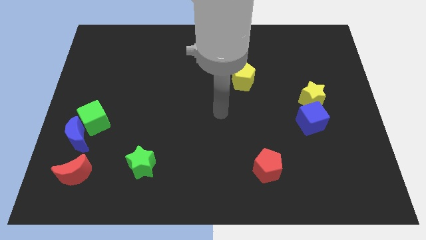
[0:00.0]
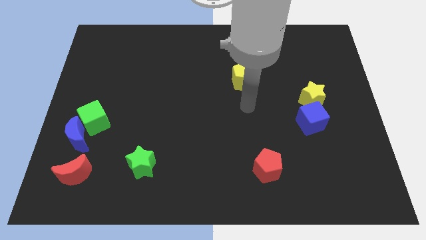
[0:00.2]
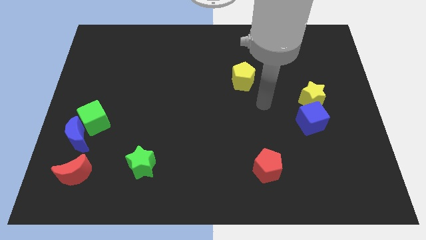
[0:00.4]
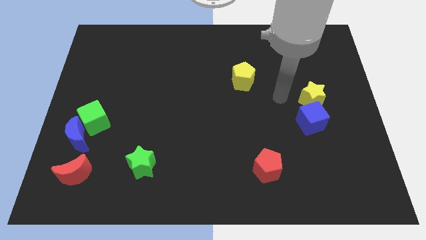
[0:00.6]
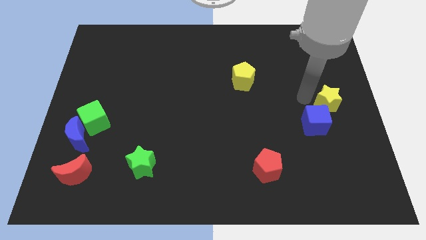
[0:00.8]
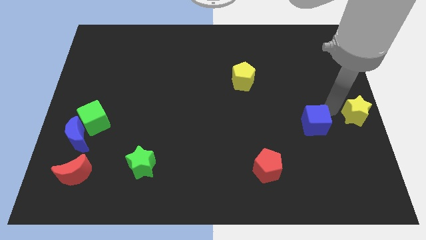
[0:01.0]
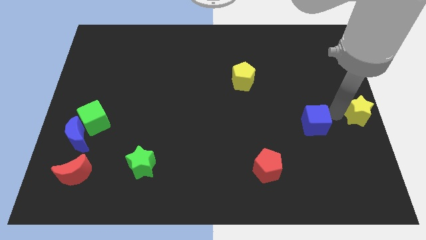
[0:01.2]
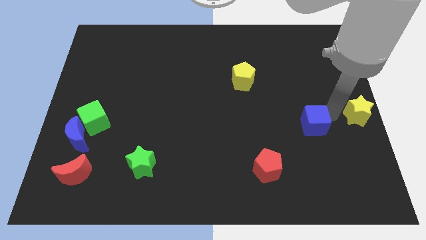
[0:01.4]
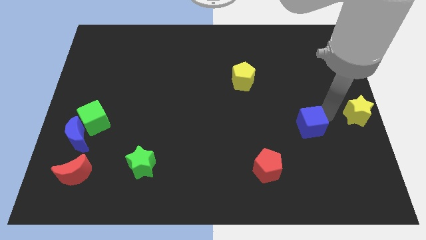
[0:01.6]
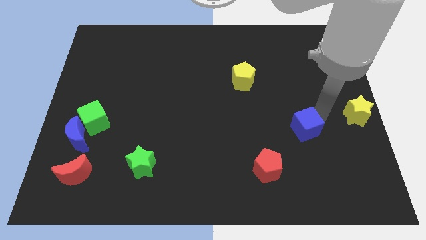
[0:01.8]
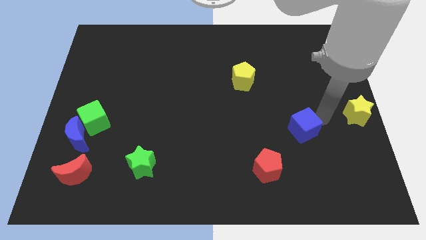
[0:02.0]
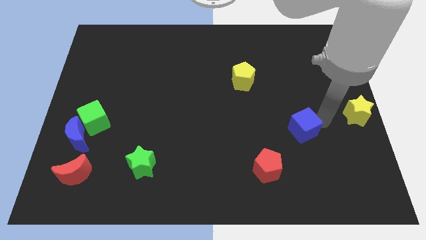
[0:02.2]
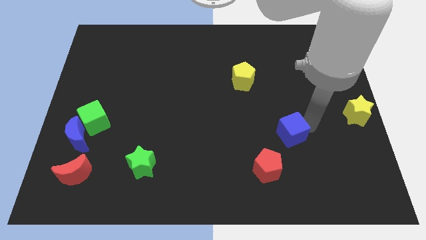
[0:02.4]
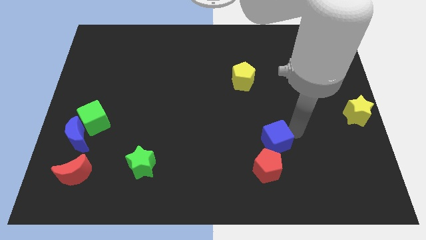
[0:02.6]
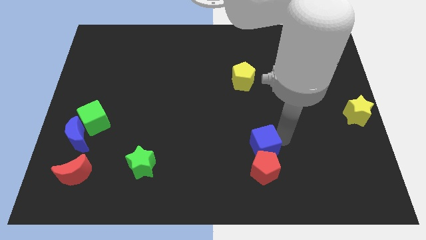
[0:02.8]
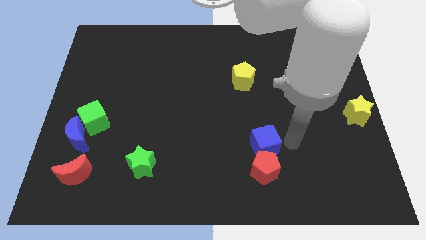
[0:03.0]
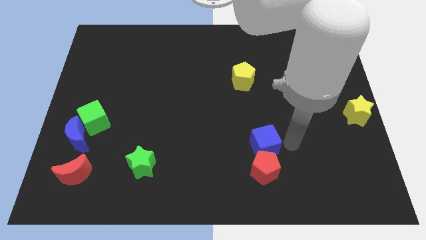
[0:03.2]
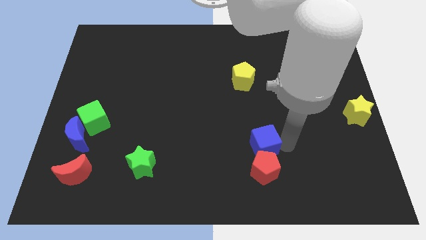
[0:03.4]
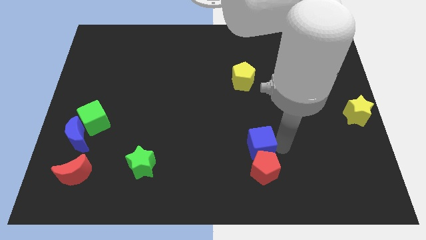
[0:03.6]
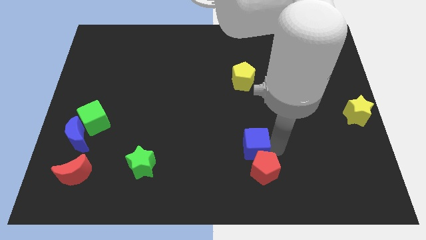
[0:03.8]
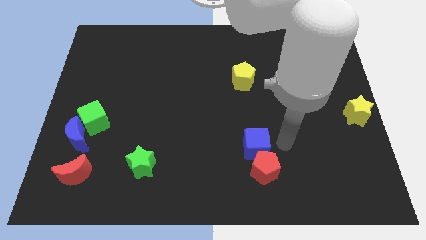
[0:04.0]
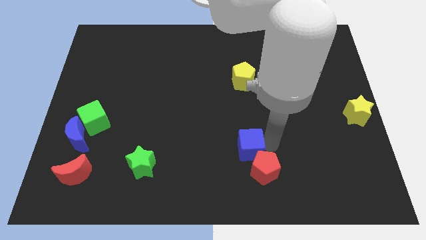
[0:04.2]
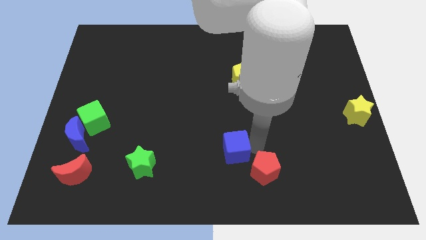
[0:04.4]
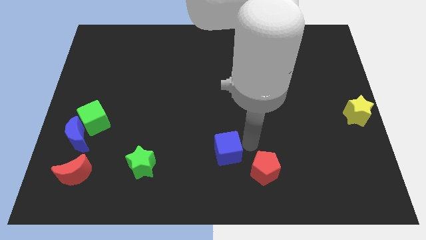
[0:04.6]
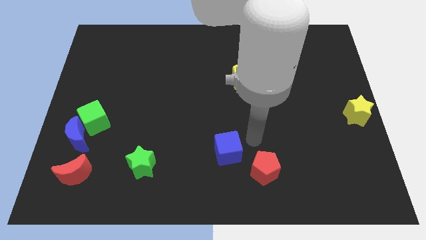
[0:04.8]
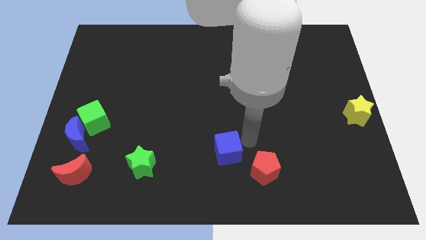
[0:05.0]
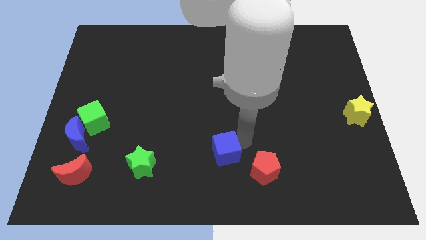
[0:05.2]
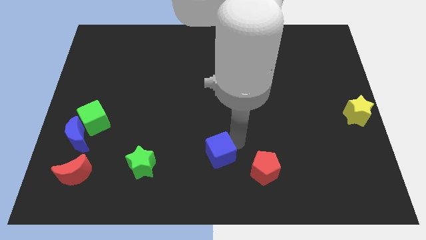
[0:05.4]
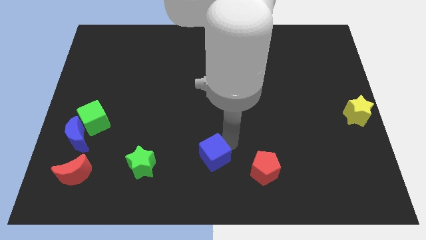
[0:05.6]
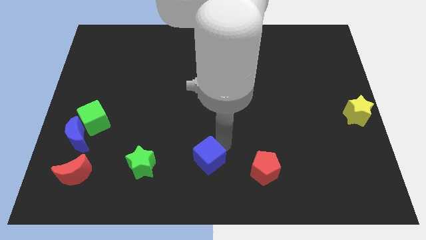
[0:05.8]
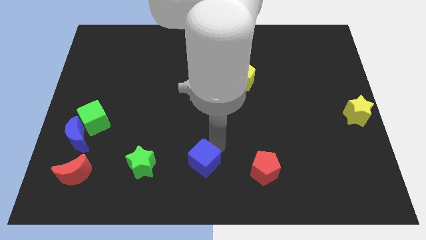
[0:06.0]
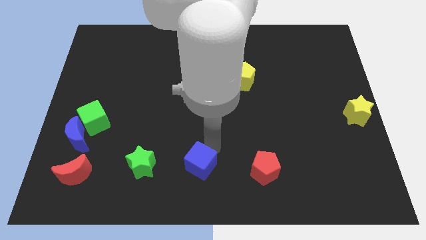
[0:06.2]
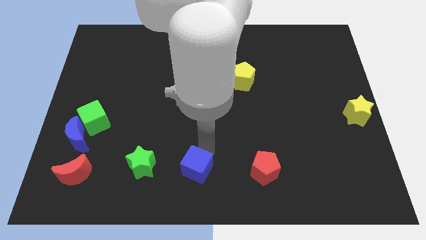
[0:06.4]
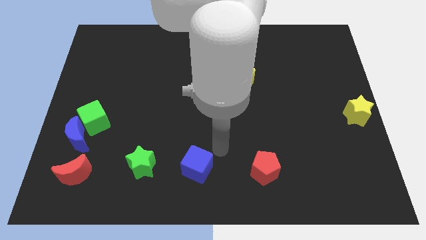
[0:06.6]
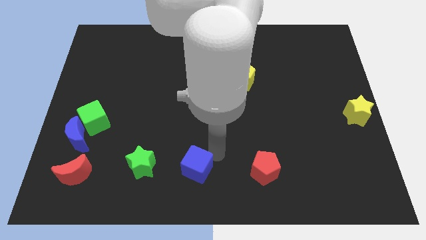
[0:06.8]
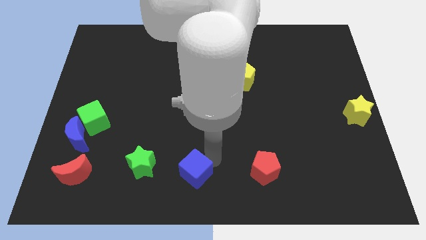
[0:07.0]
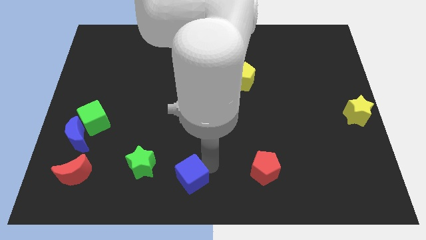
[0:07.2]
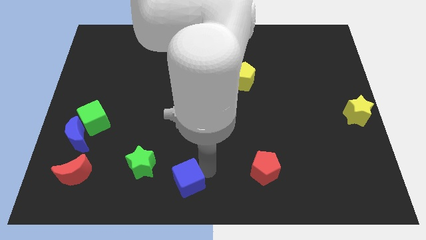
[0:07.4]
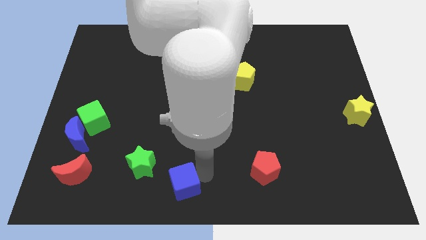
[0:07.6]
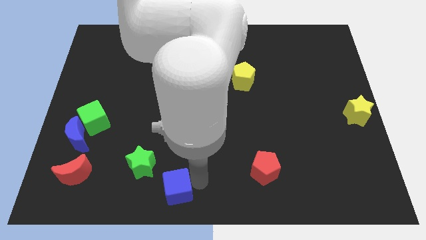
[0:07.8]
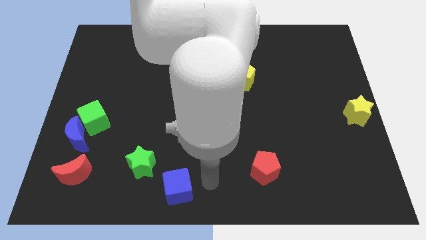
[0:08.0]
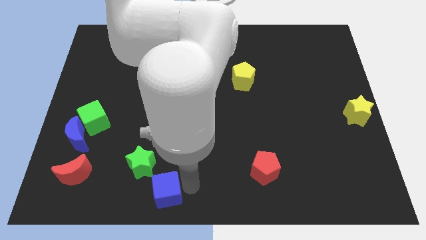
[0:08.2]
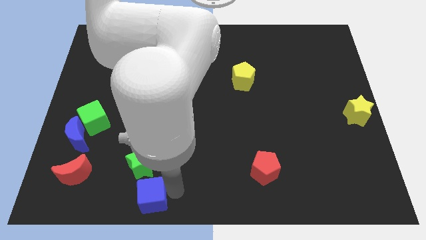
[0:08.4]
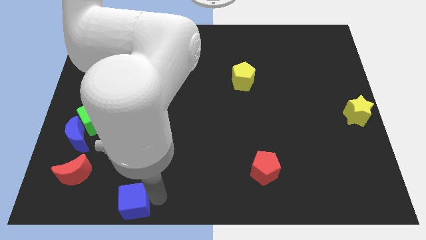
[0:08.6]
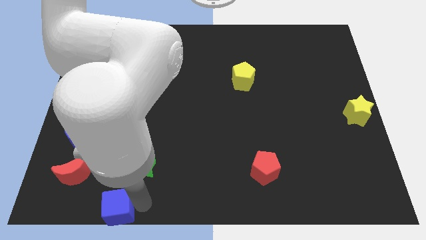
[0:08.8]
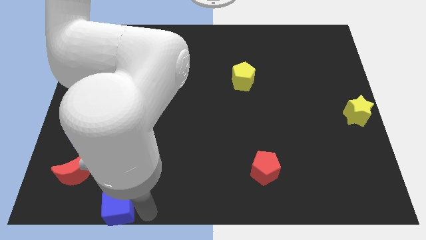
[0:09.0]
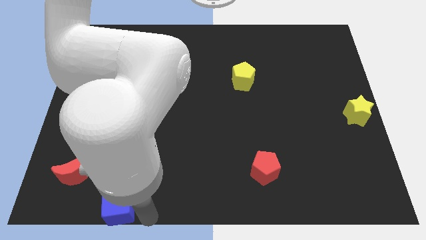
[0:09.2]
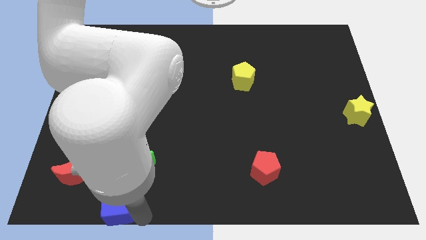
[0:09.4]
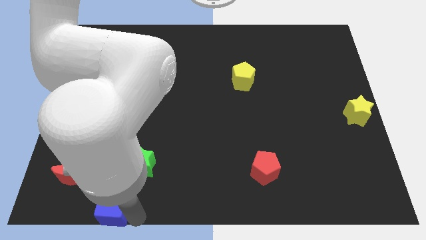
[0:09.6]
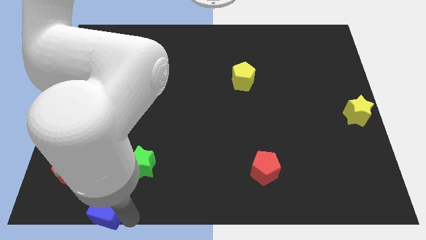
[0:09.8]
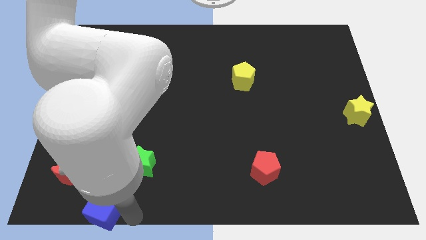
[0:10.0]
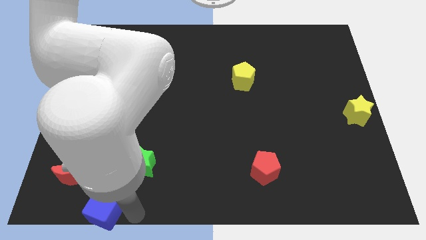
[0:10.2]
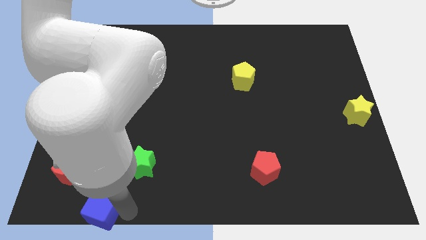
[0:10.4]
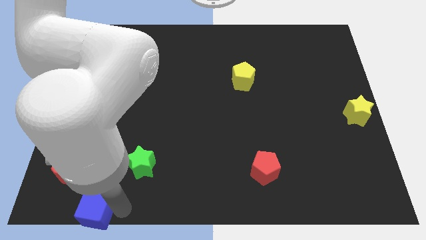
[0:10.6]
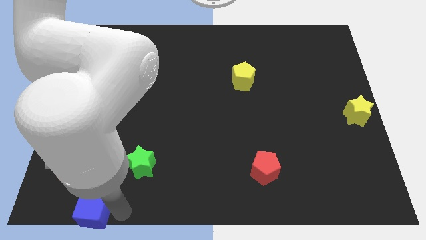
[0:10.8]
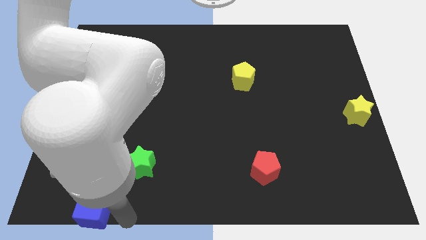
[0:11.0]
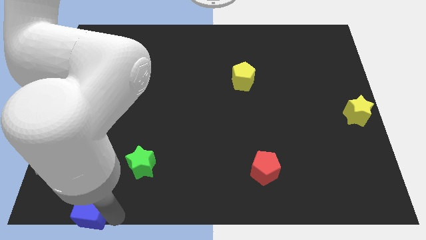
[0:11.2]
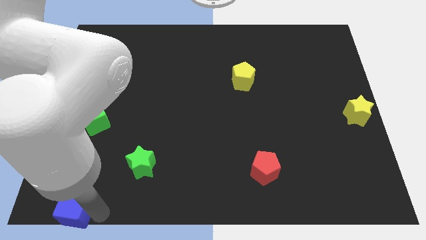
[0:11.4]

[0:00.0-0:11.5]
push the blue cube to the bottom left corner

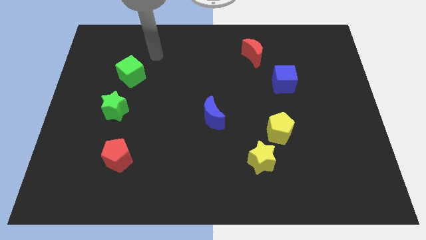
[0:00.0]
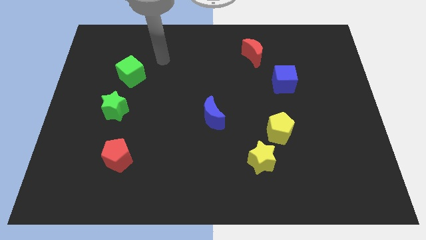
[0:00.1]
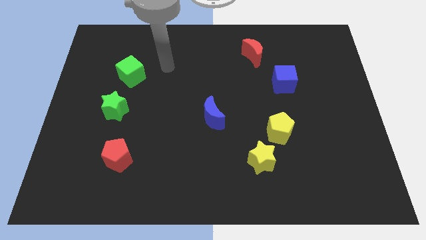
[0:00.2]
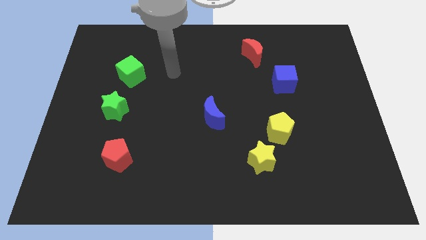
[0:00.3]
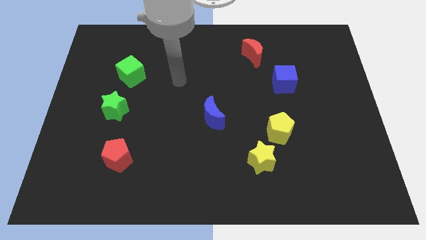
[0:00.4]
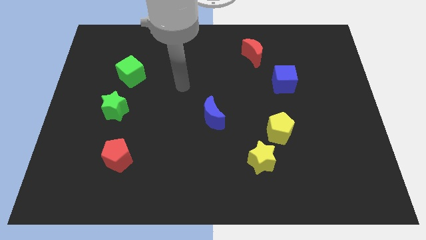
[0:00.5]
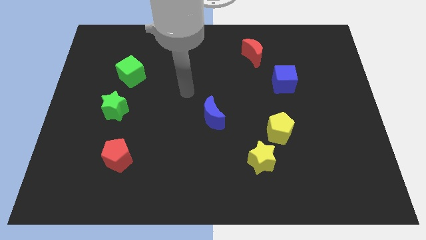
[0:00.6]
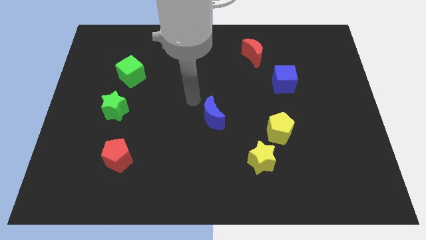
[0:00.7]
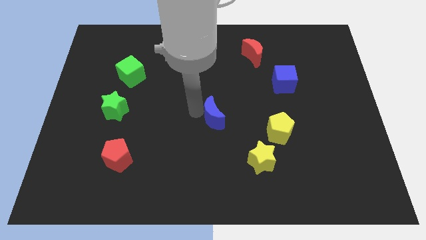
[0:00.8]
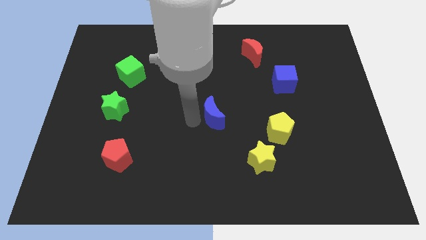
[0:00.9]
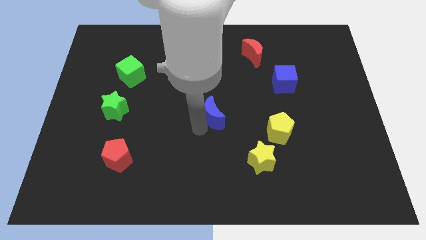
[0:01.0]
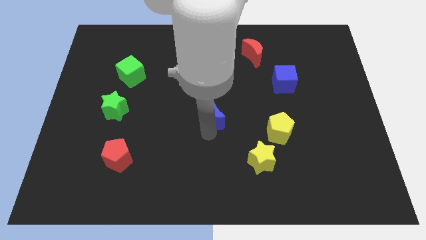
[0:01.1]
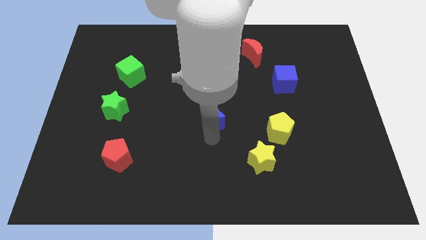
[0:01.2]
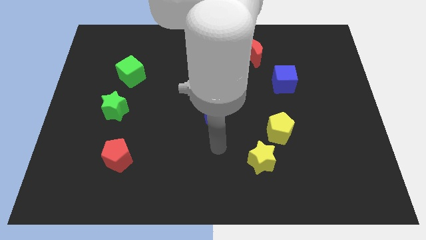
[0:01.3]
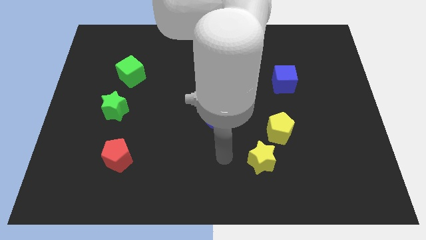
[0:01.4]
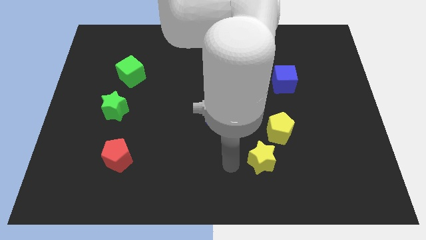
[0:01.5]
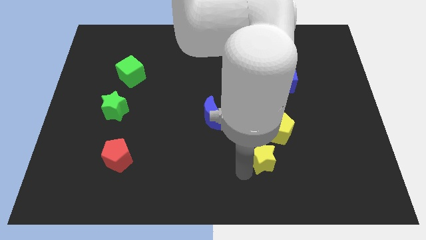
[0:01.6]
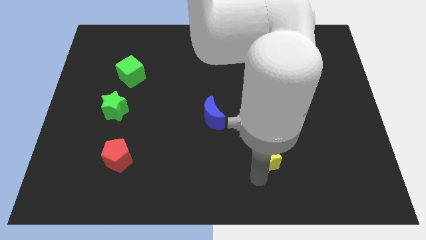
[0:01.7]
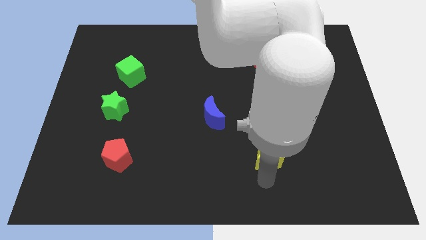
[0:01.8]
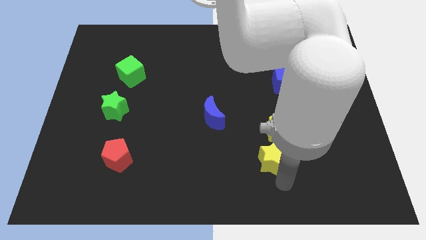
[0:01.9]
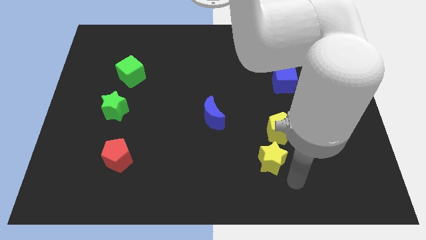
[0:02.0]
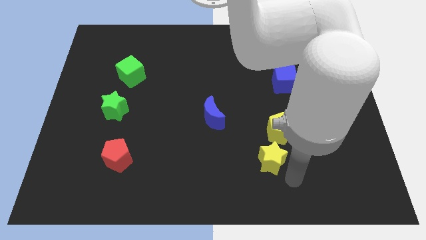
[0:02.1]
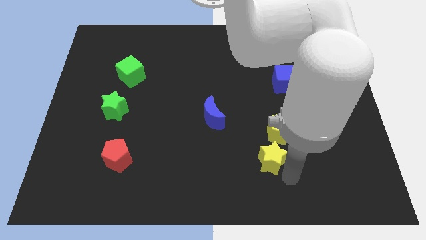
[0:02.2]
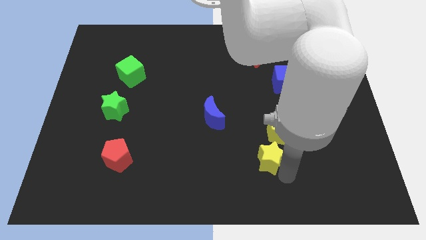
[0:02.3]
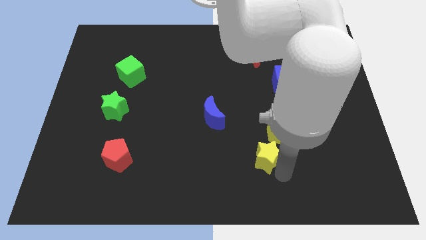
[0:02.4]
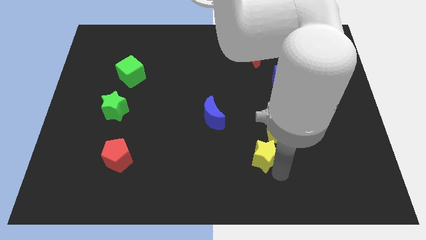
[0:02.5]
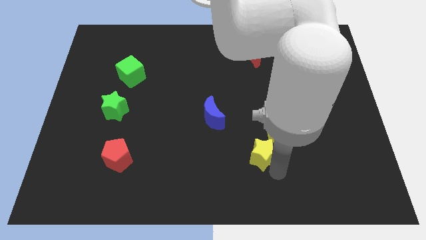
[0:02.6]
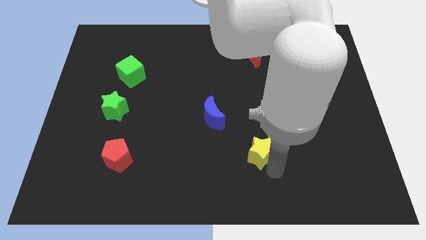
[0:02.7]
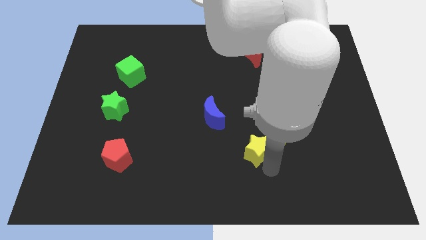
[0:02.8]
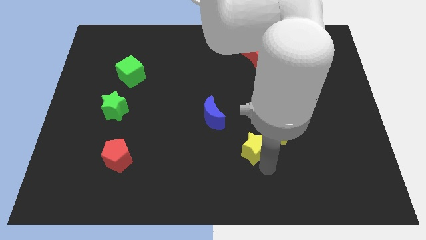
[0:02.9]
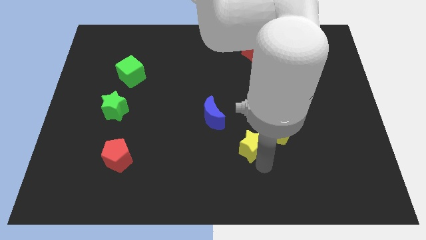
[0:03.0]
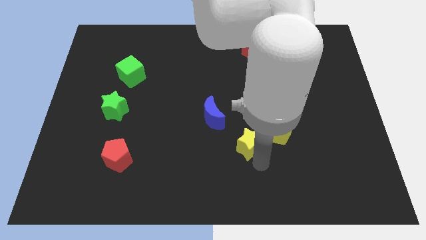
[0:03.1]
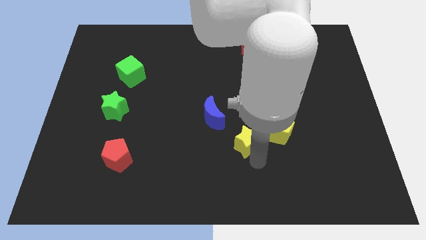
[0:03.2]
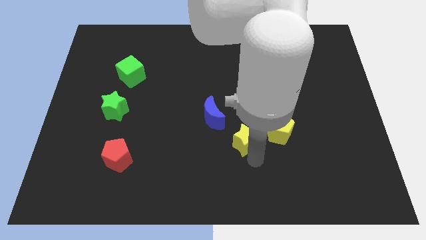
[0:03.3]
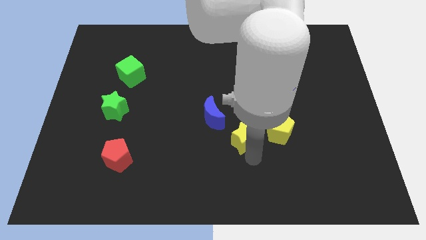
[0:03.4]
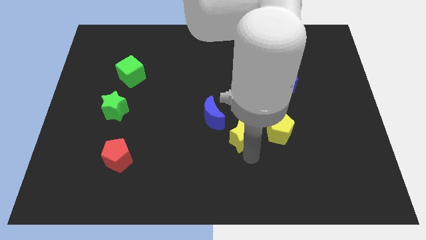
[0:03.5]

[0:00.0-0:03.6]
push the yellow star to the middle of the board
